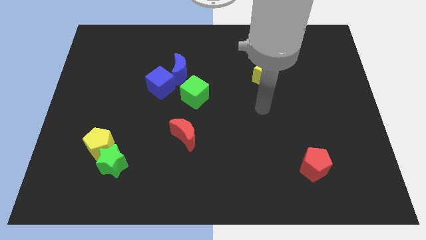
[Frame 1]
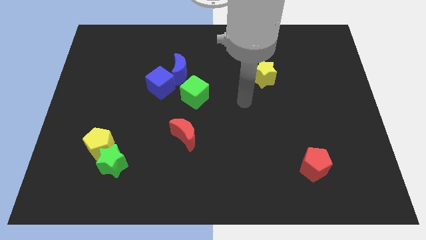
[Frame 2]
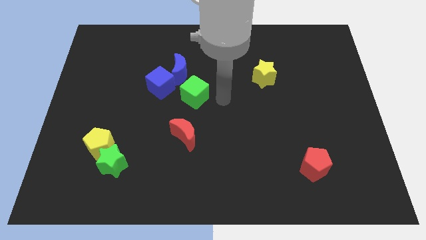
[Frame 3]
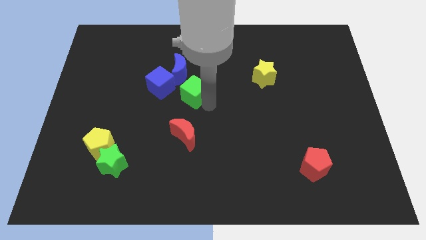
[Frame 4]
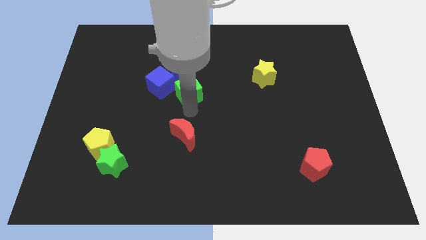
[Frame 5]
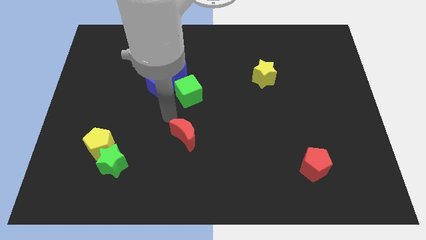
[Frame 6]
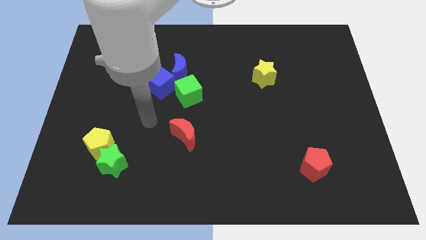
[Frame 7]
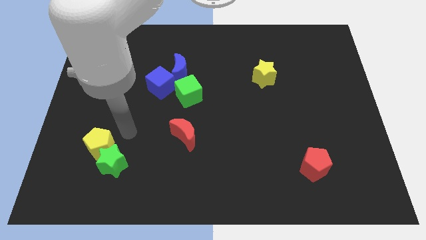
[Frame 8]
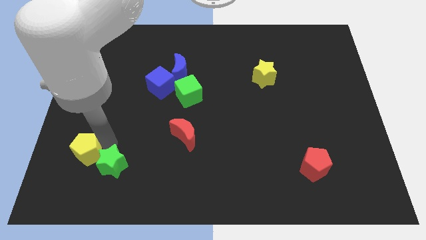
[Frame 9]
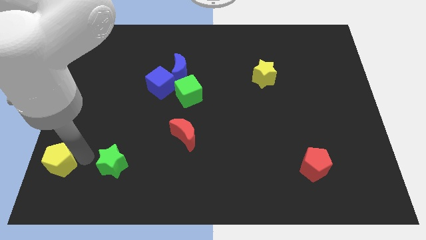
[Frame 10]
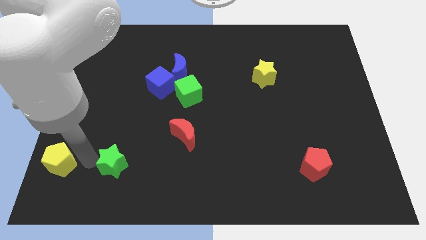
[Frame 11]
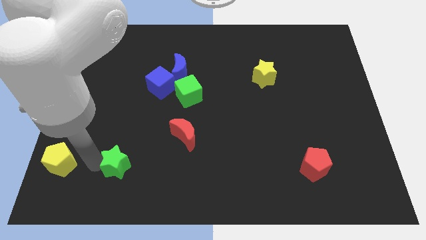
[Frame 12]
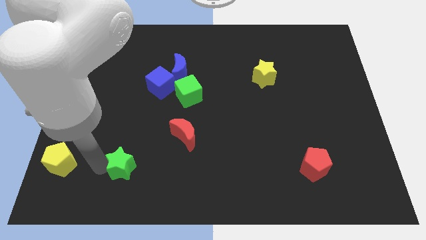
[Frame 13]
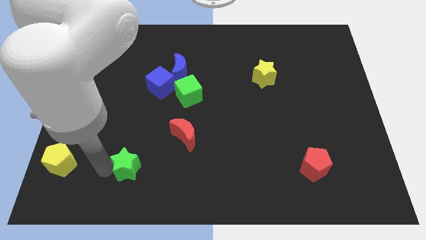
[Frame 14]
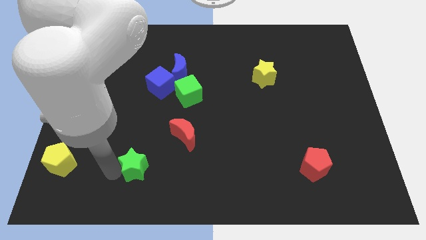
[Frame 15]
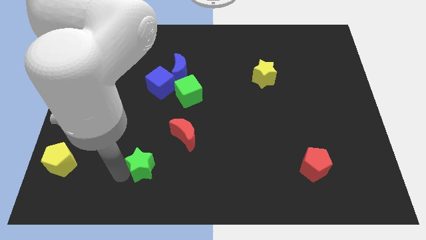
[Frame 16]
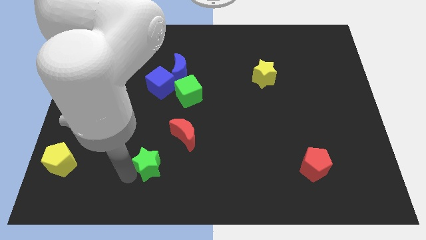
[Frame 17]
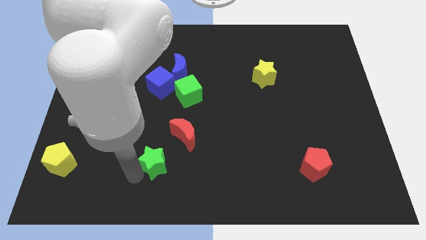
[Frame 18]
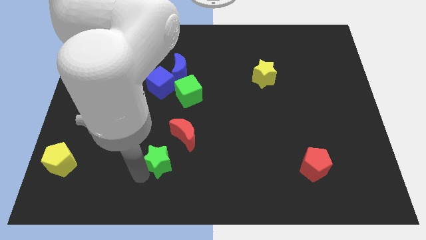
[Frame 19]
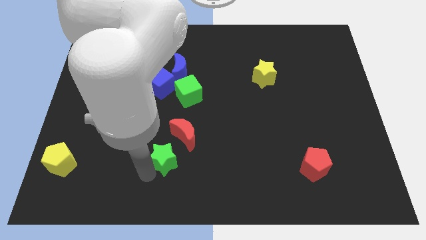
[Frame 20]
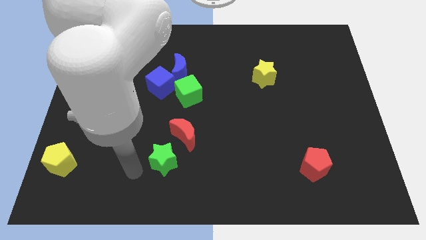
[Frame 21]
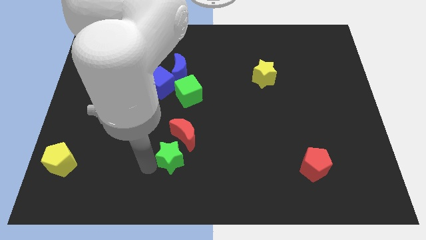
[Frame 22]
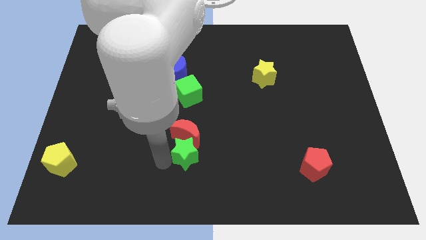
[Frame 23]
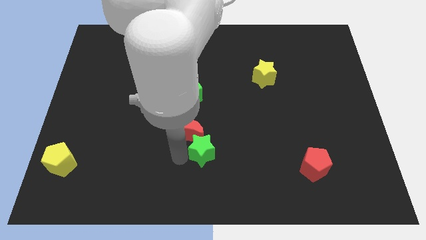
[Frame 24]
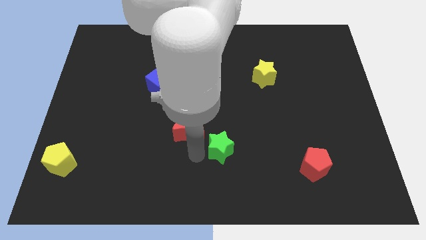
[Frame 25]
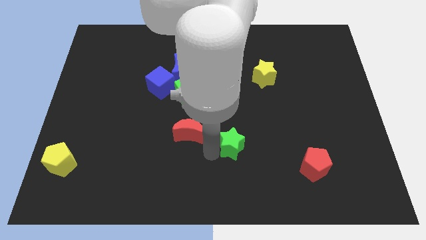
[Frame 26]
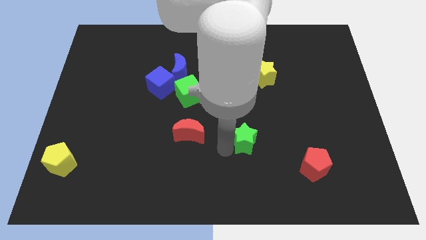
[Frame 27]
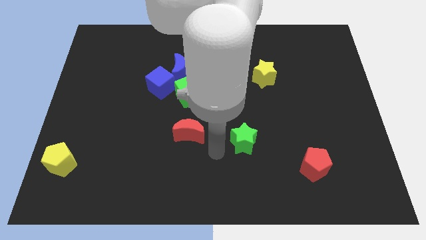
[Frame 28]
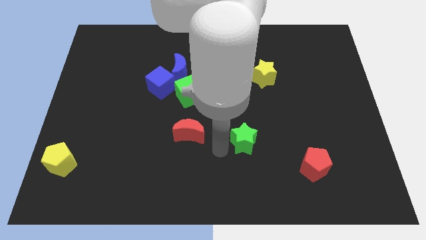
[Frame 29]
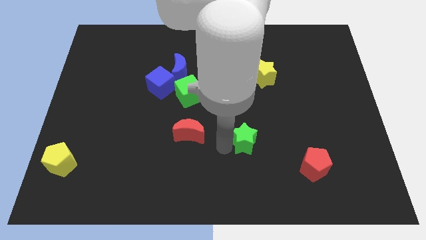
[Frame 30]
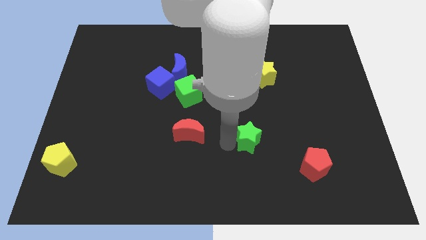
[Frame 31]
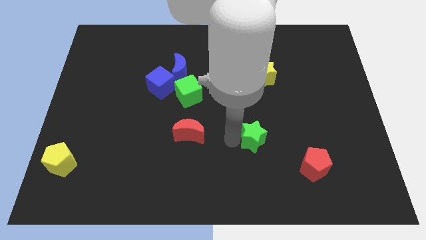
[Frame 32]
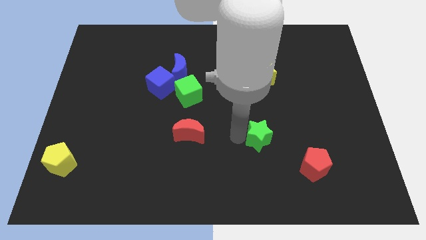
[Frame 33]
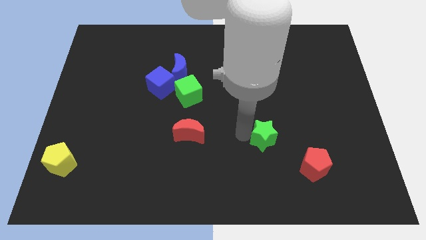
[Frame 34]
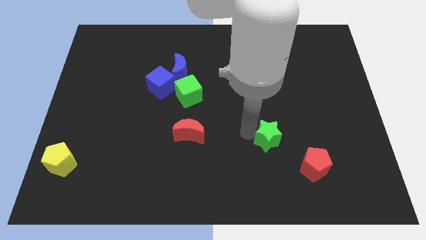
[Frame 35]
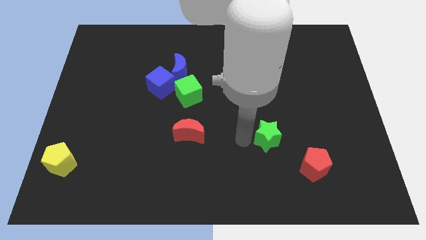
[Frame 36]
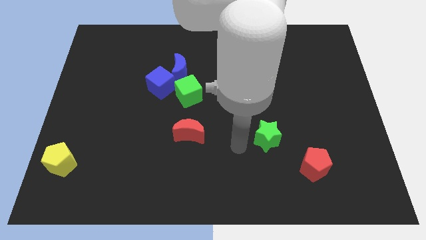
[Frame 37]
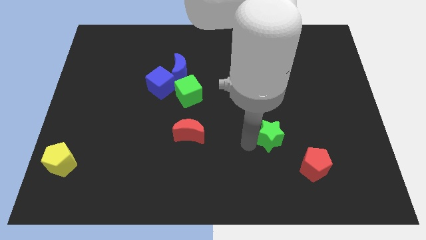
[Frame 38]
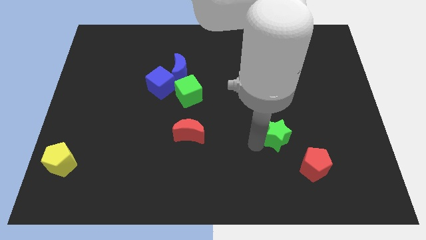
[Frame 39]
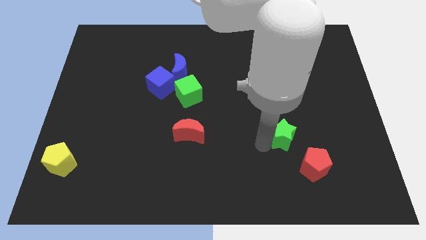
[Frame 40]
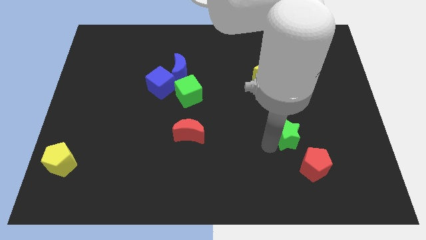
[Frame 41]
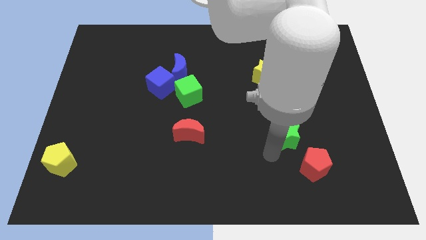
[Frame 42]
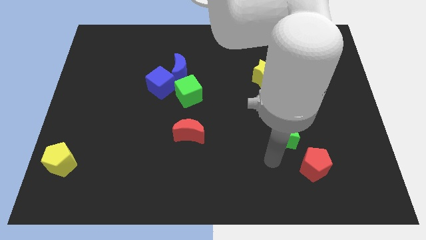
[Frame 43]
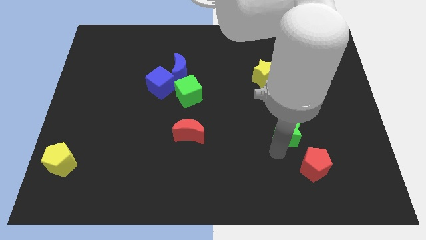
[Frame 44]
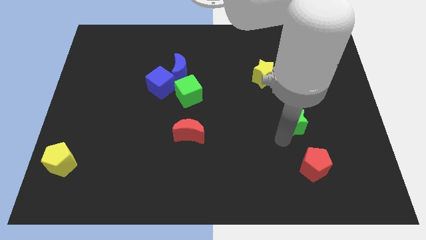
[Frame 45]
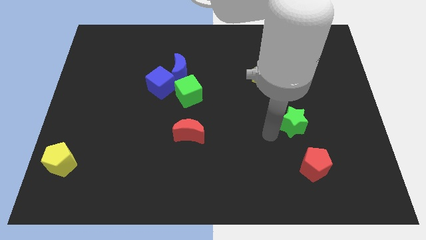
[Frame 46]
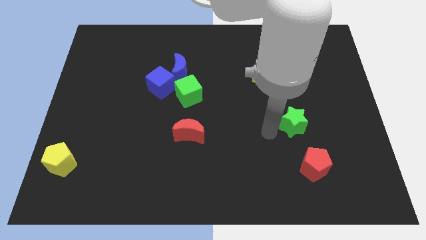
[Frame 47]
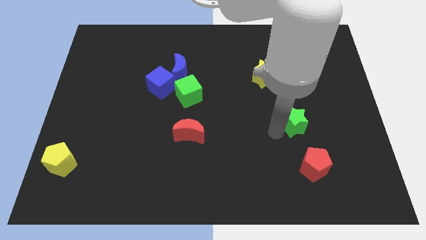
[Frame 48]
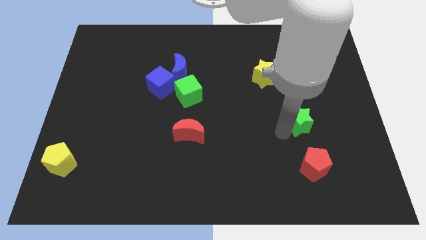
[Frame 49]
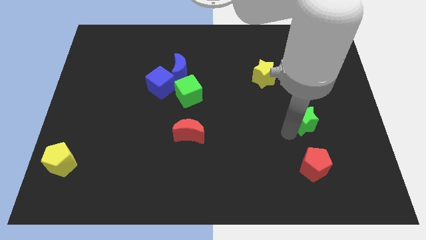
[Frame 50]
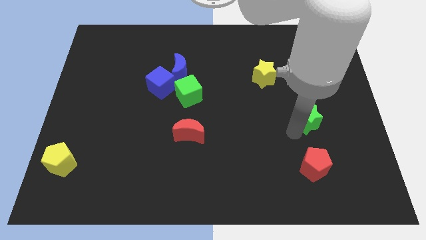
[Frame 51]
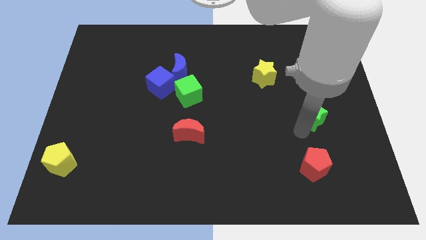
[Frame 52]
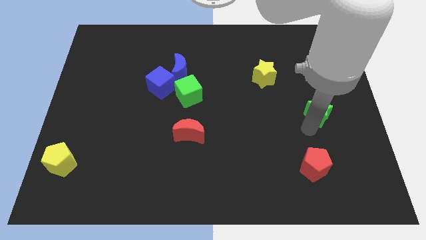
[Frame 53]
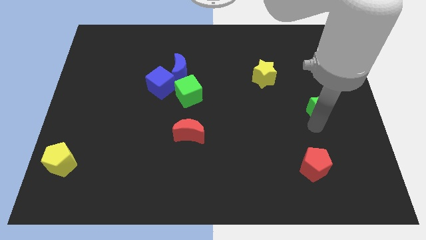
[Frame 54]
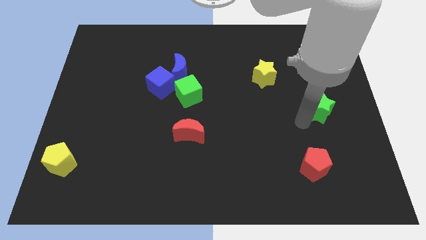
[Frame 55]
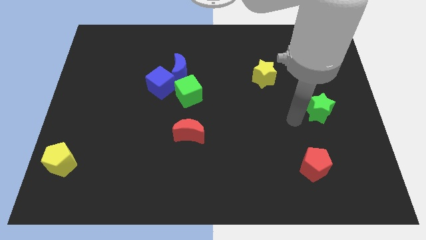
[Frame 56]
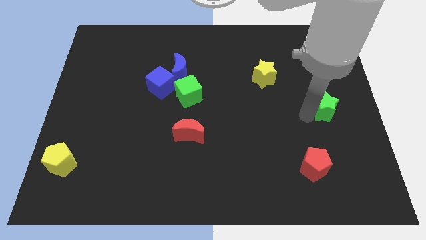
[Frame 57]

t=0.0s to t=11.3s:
put the green star to the right side of the board

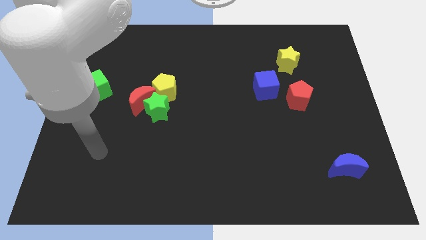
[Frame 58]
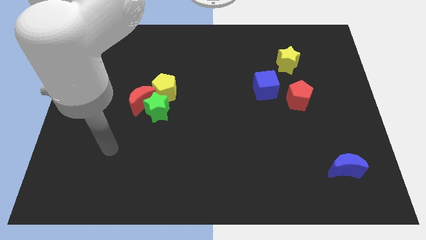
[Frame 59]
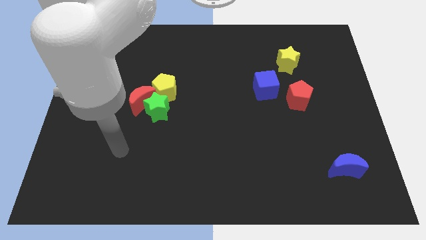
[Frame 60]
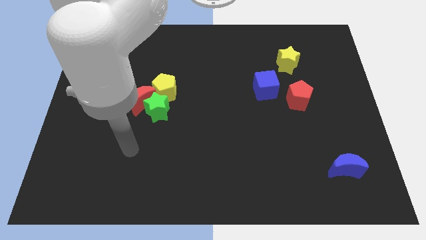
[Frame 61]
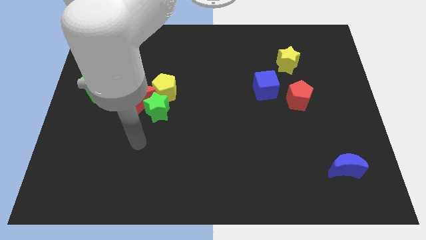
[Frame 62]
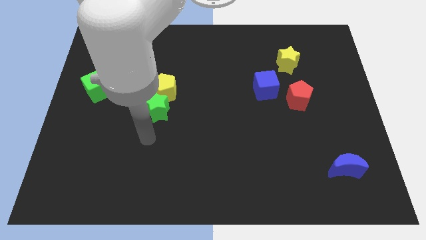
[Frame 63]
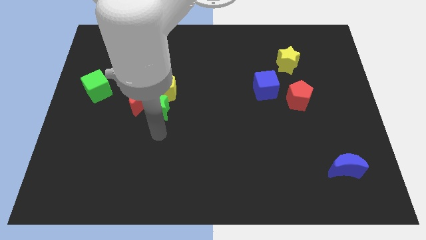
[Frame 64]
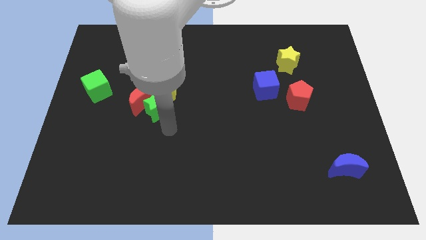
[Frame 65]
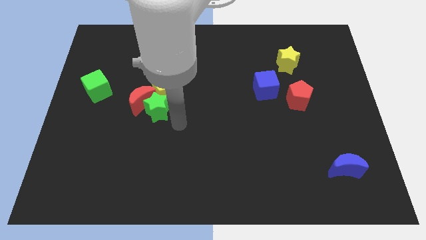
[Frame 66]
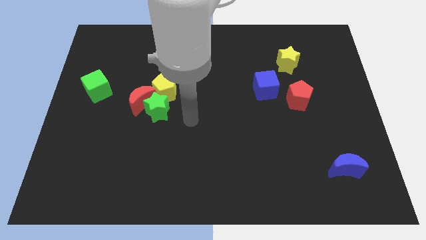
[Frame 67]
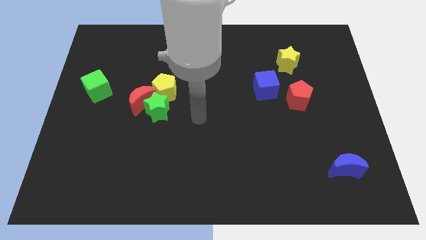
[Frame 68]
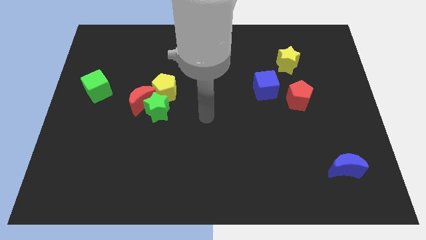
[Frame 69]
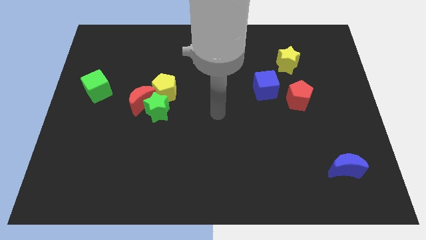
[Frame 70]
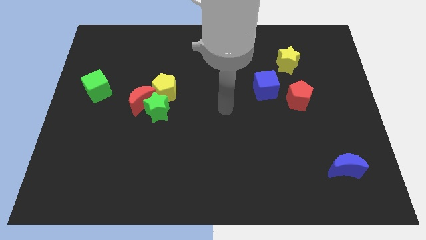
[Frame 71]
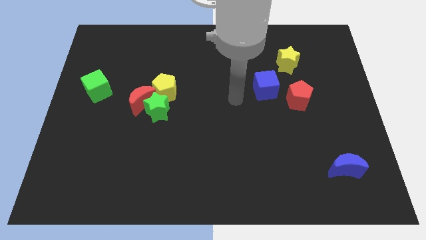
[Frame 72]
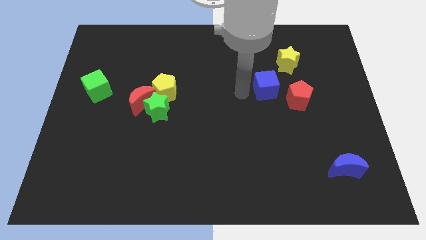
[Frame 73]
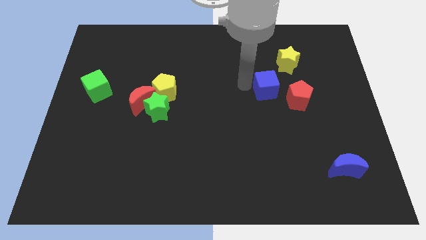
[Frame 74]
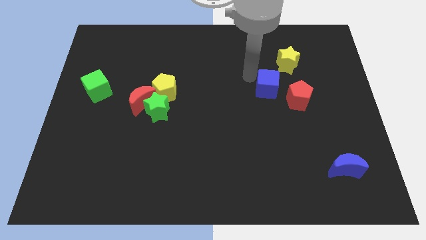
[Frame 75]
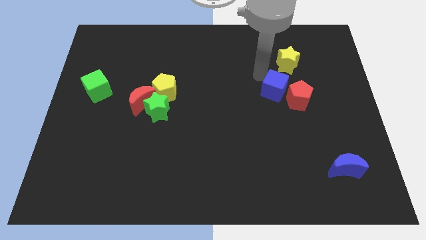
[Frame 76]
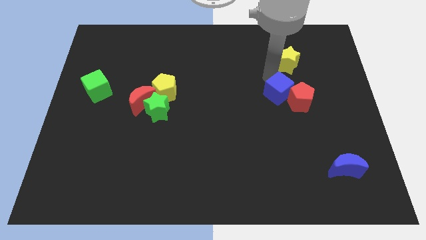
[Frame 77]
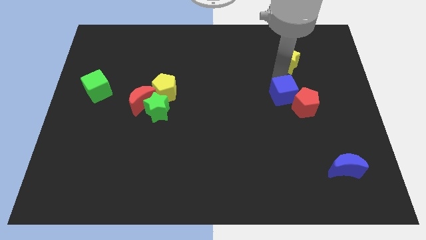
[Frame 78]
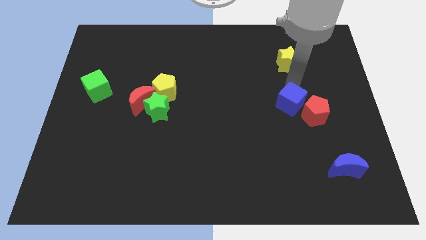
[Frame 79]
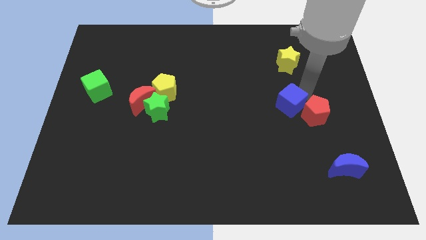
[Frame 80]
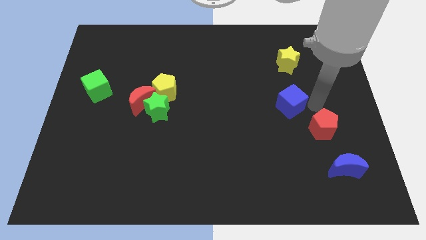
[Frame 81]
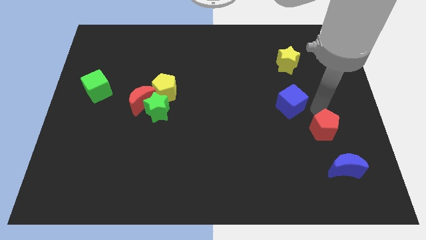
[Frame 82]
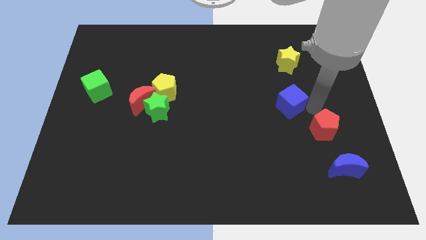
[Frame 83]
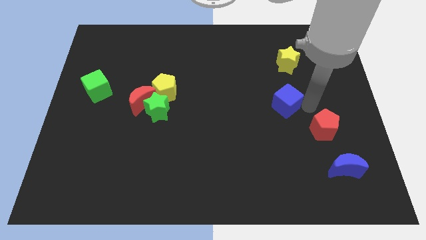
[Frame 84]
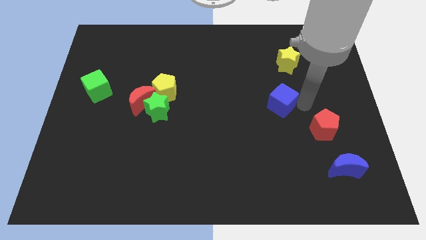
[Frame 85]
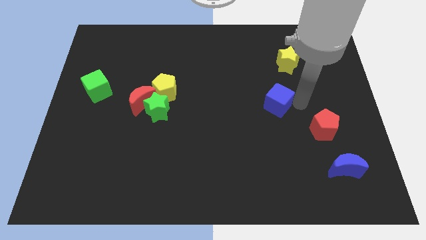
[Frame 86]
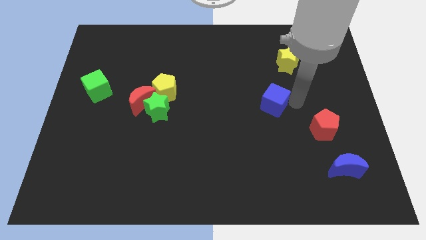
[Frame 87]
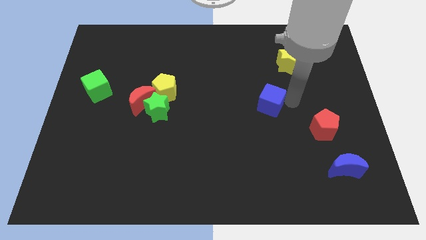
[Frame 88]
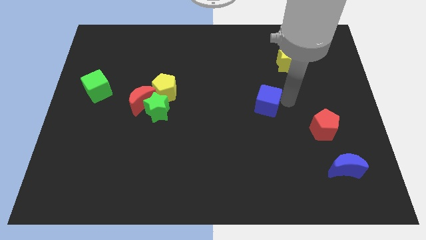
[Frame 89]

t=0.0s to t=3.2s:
put the blue cube to the middle of the board
